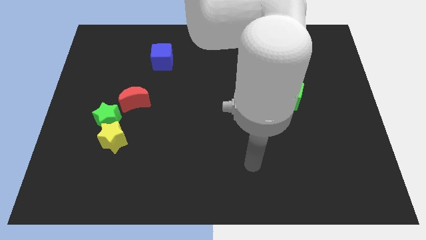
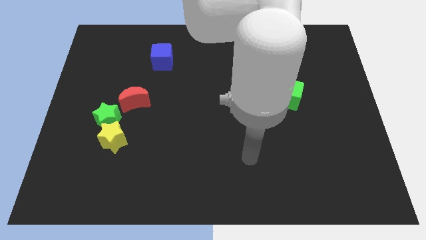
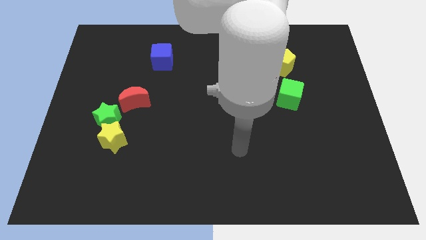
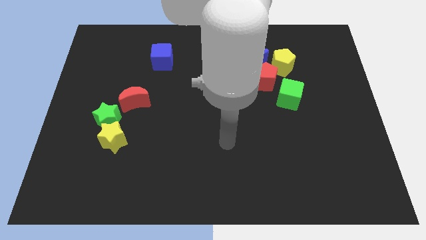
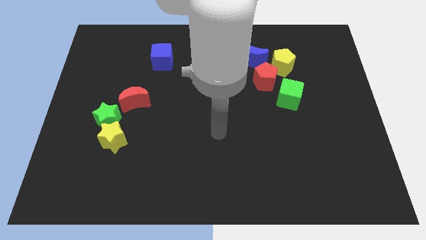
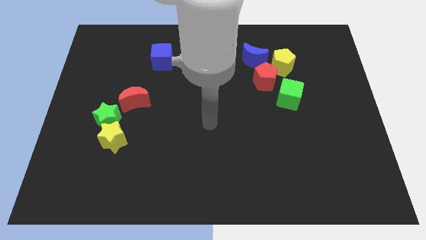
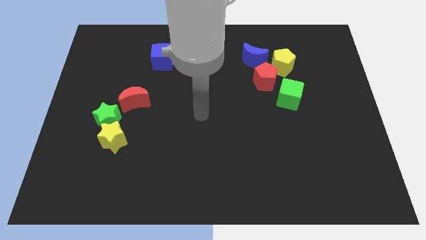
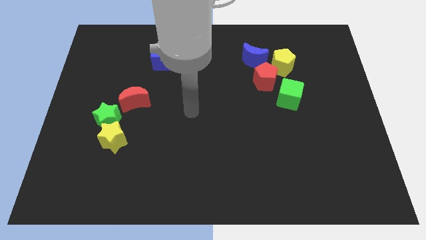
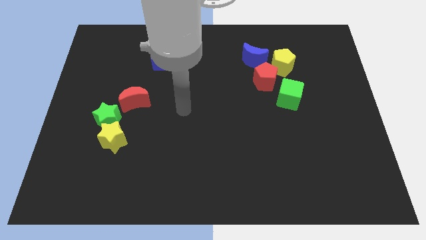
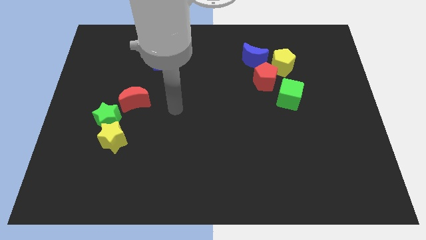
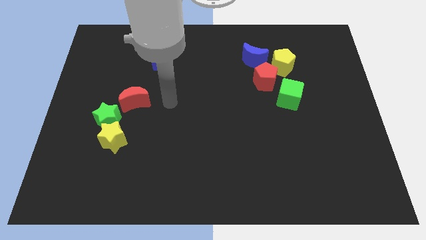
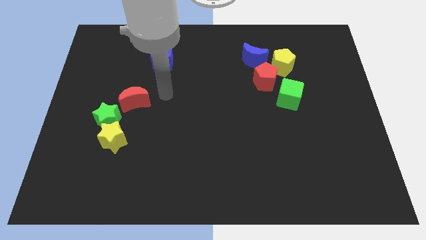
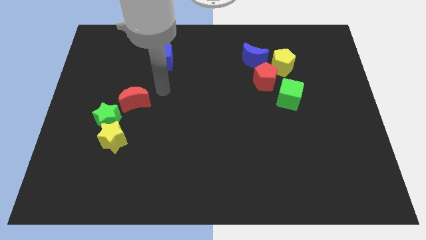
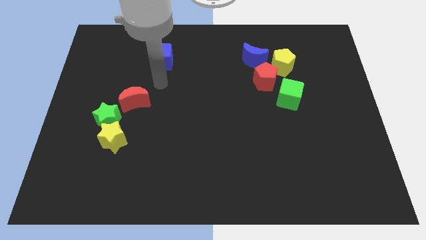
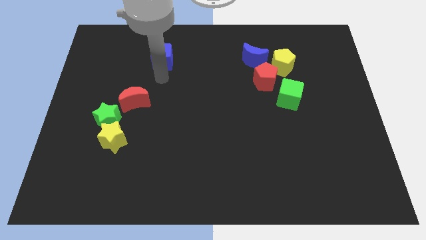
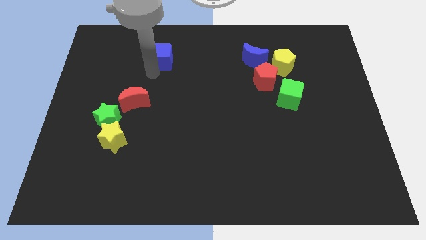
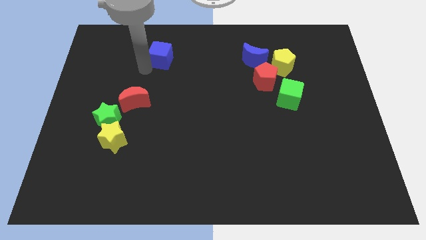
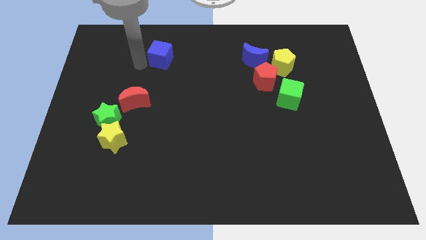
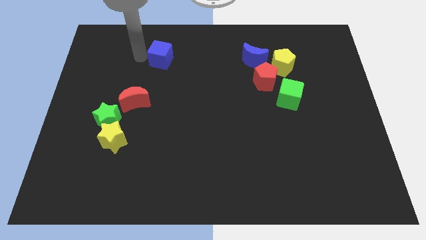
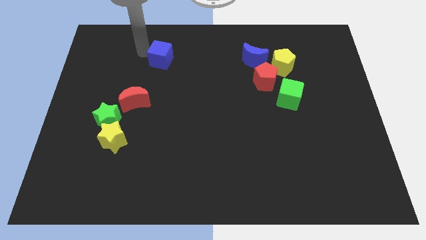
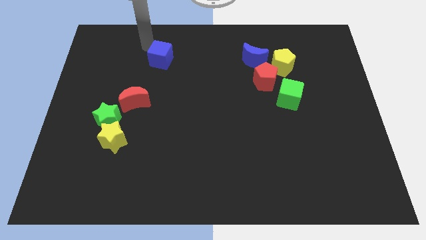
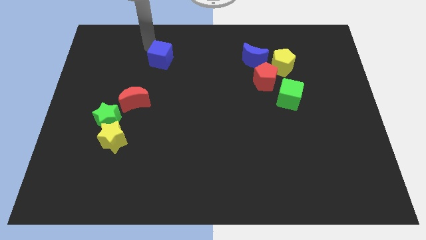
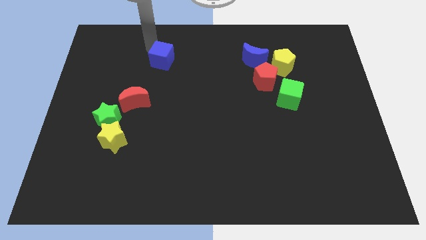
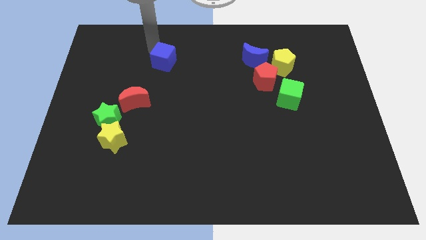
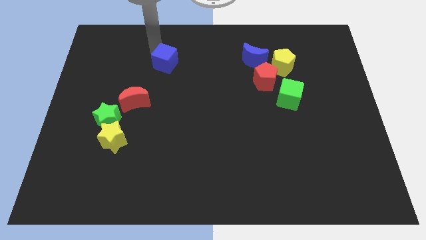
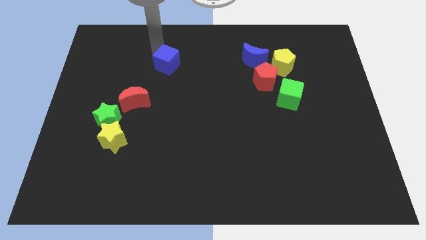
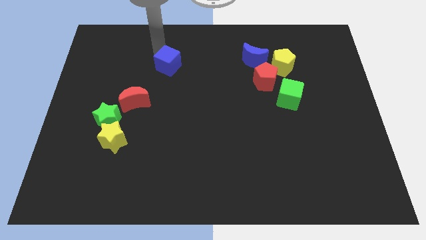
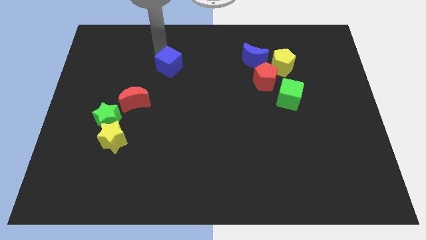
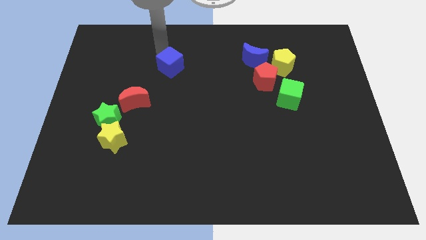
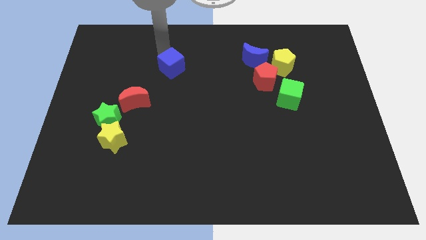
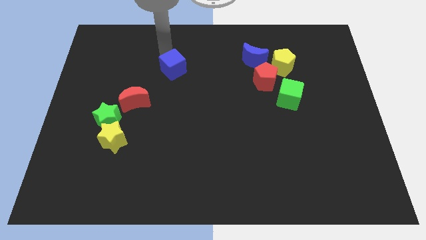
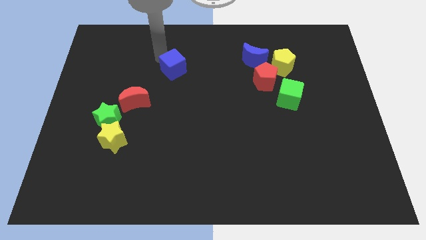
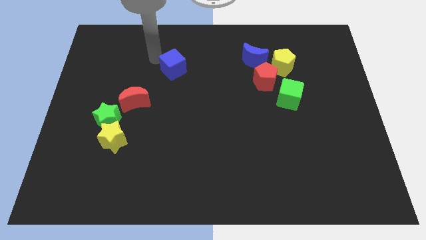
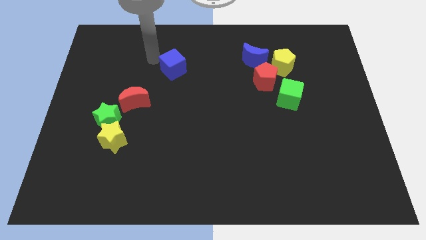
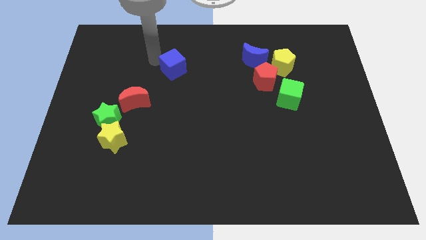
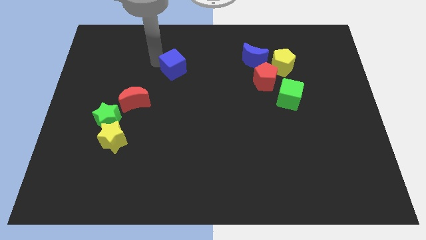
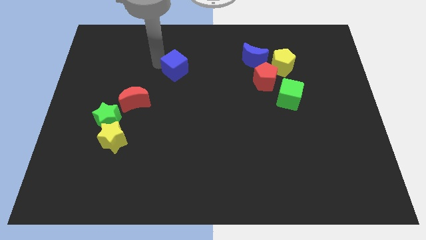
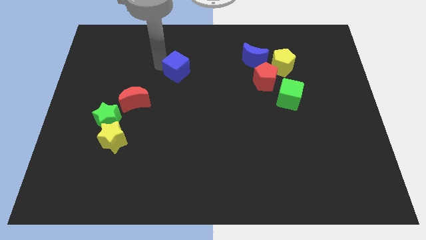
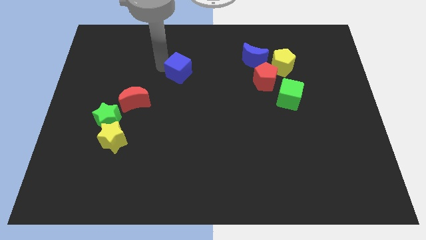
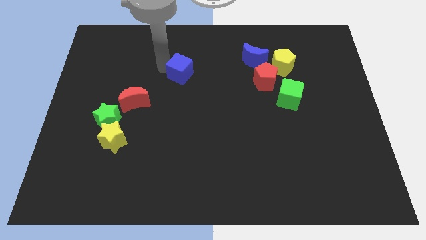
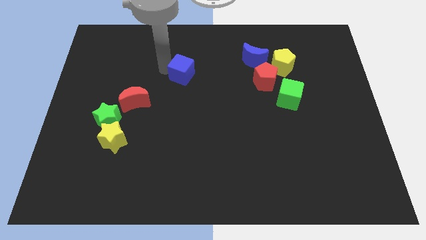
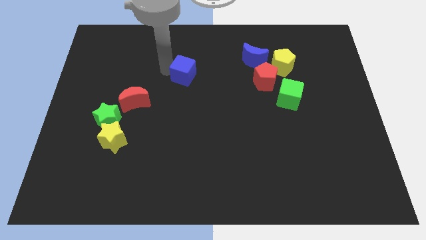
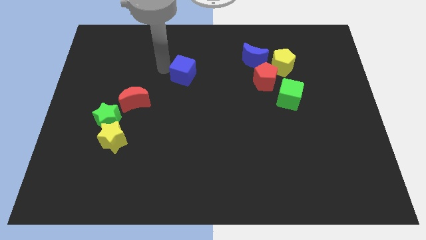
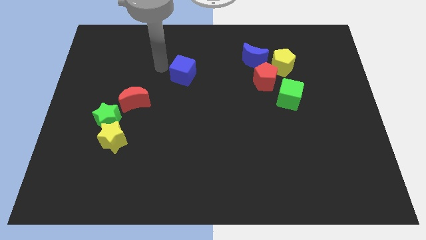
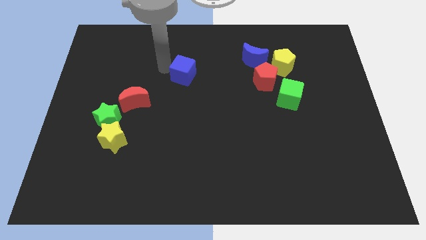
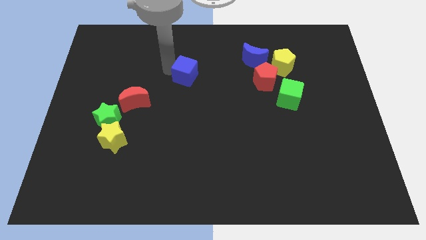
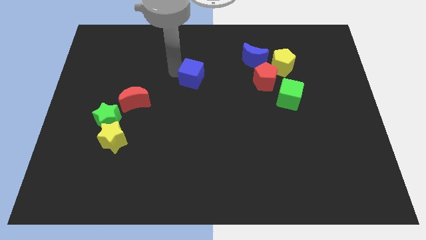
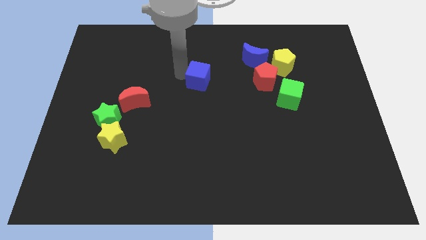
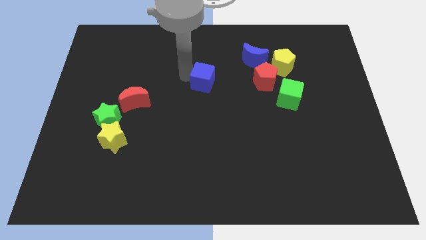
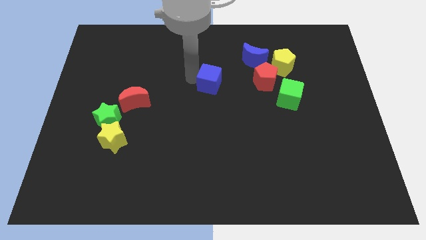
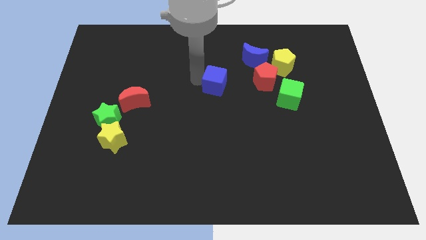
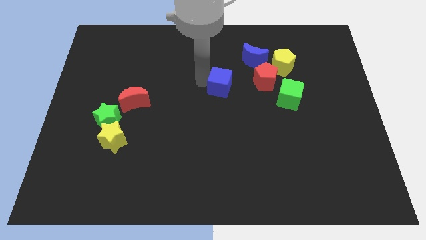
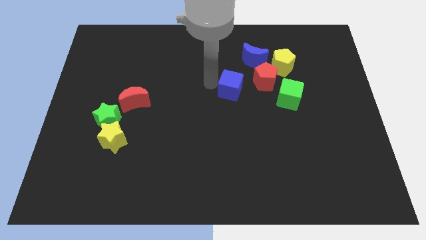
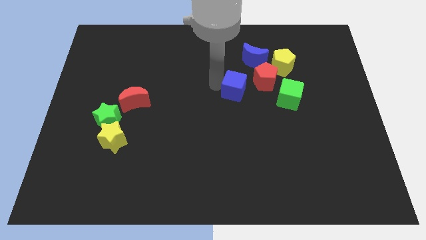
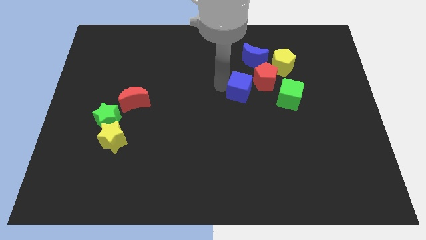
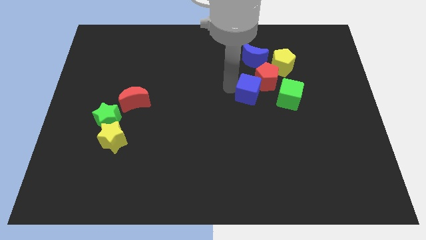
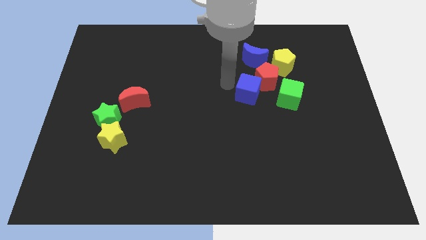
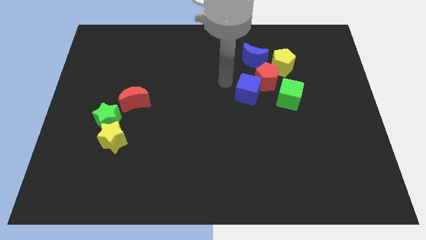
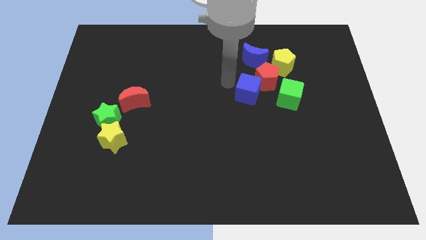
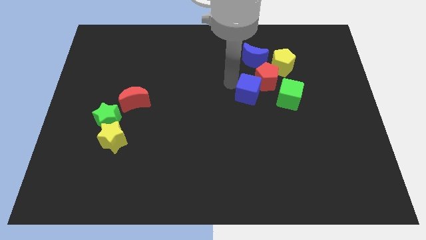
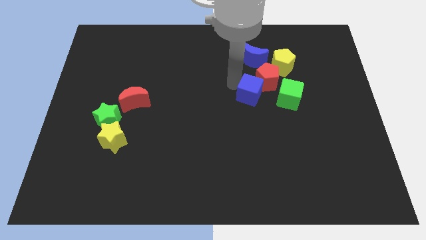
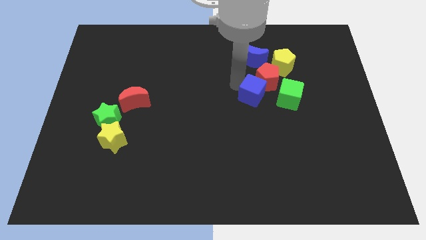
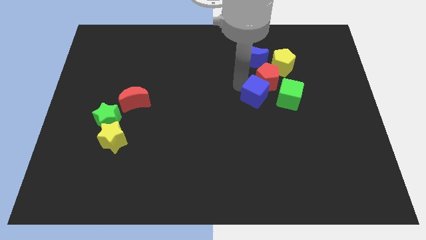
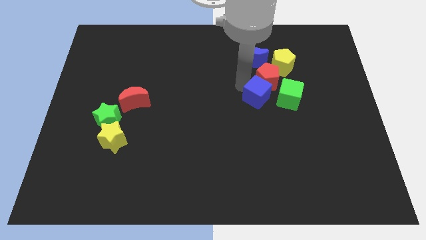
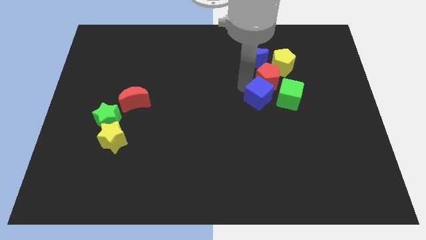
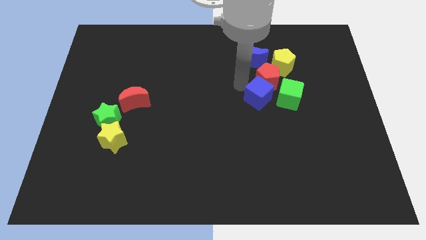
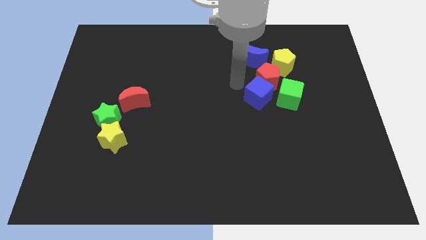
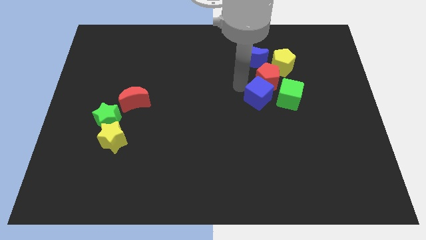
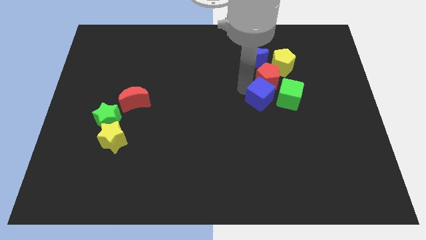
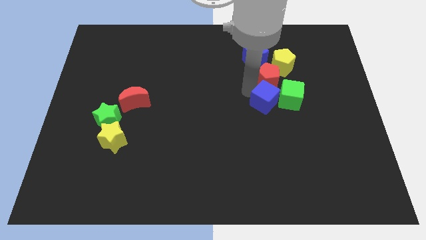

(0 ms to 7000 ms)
push the blue cube towards the green cube

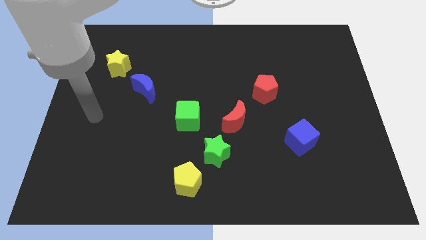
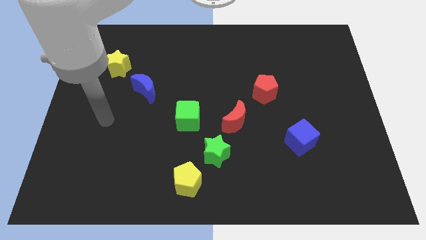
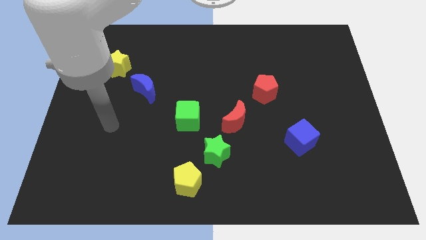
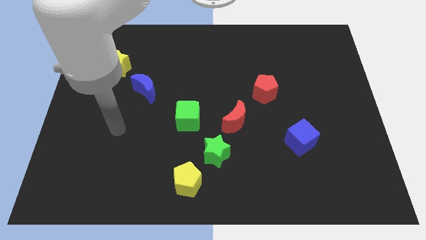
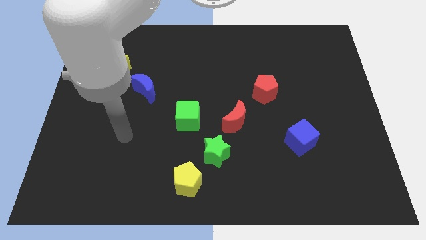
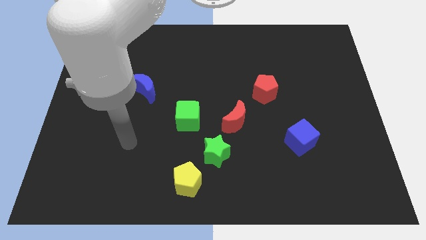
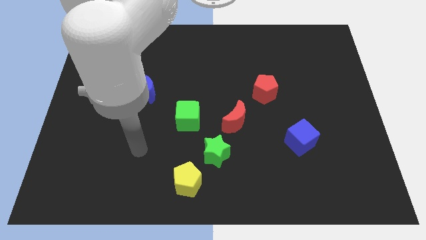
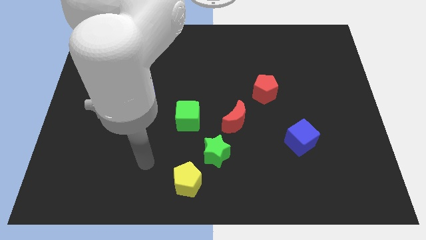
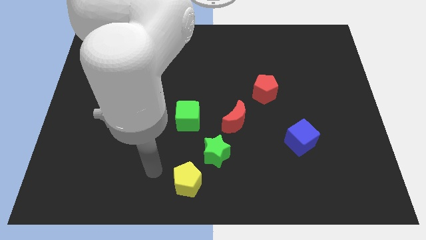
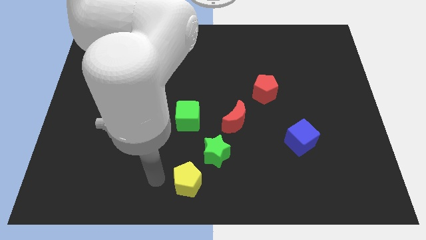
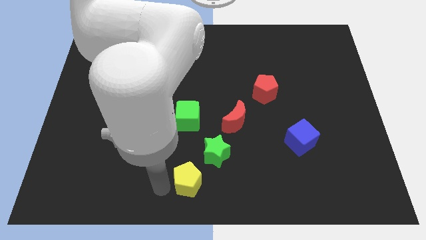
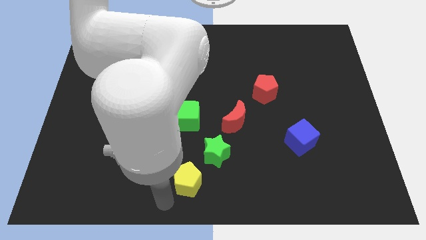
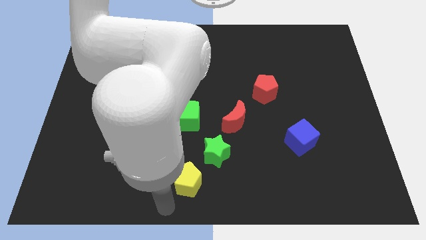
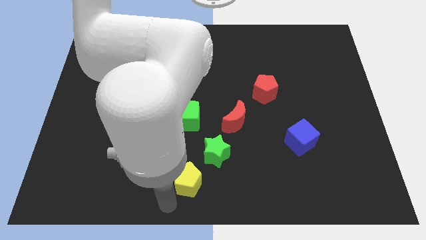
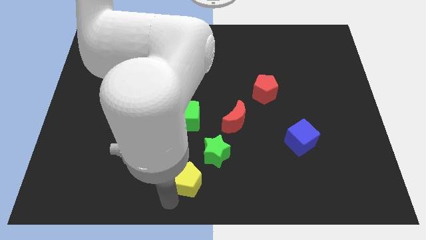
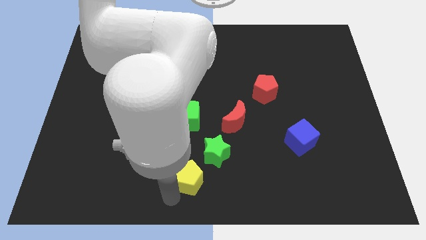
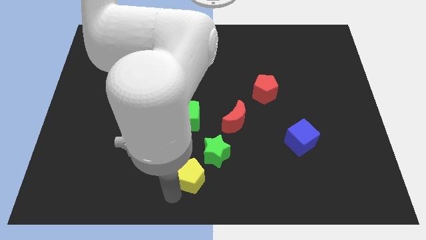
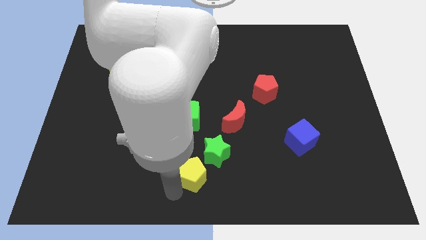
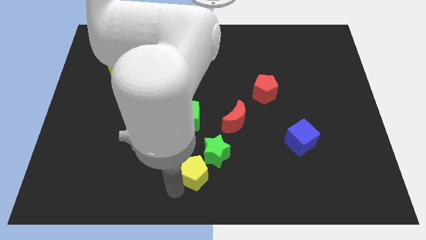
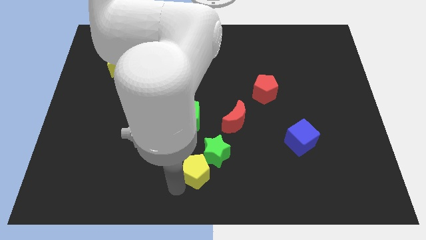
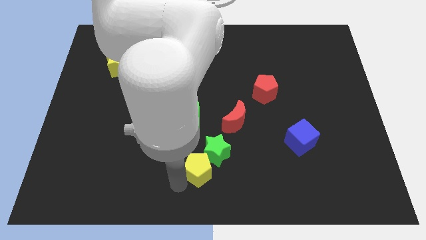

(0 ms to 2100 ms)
push the yellow pentagon to the green star
